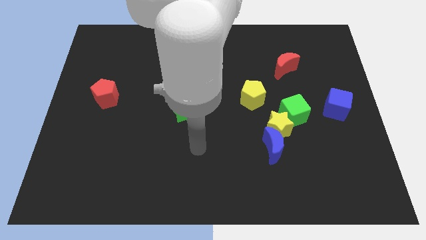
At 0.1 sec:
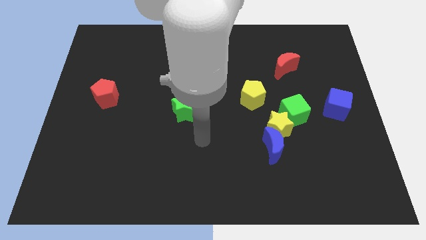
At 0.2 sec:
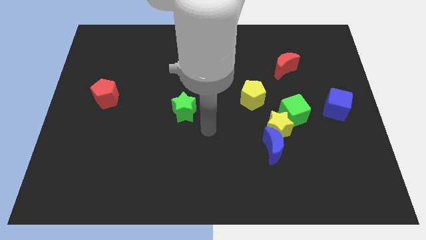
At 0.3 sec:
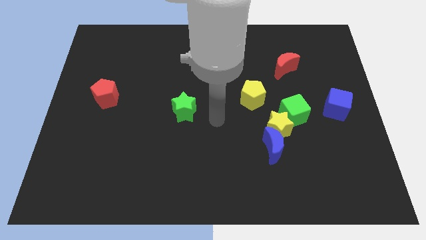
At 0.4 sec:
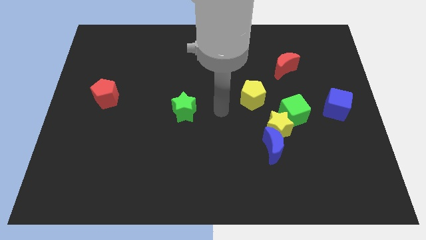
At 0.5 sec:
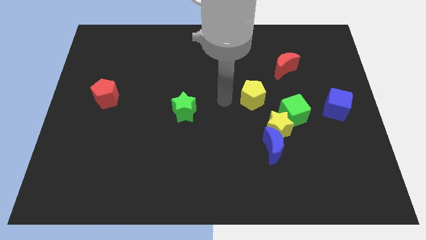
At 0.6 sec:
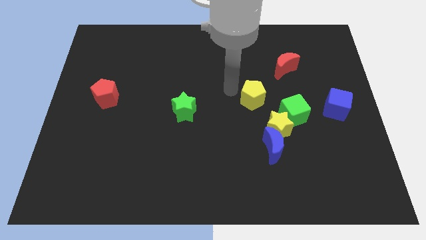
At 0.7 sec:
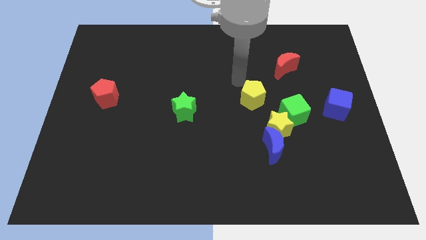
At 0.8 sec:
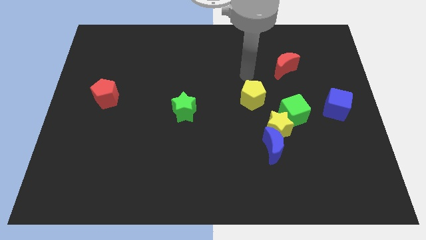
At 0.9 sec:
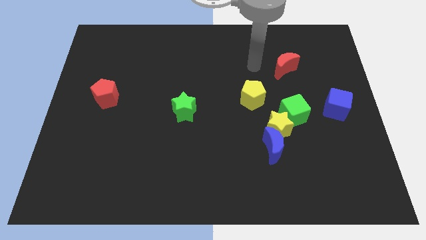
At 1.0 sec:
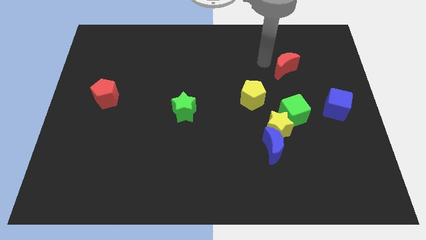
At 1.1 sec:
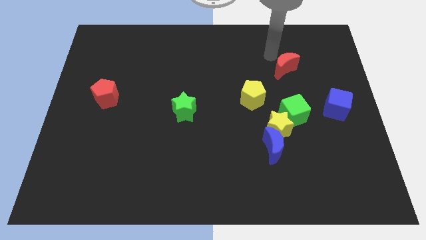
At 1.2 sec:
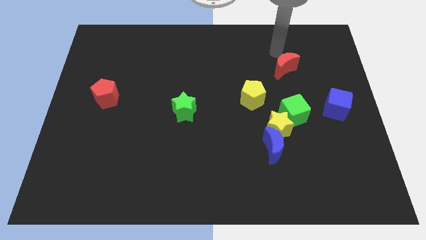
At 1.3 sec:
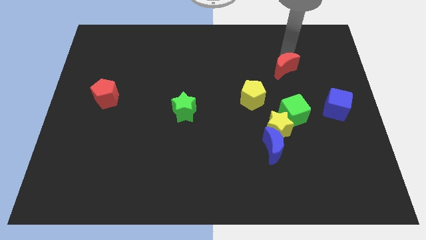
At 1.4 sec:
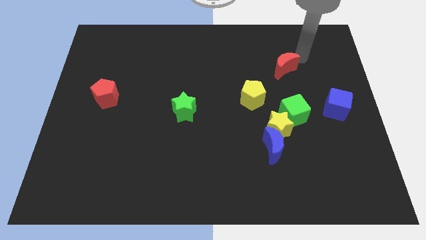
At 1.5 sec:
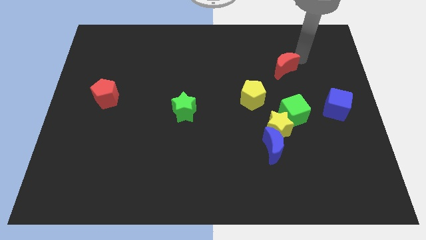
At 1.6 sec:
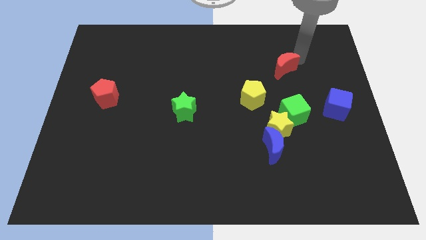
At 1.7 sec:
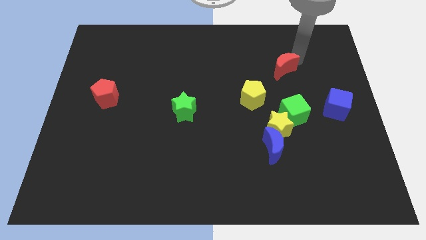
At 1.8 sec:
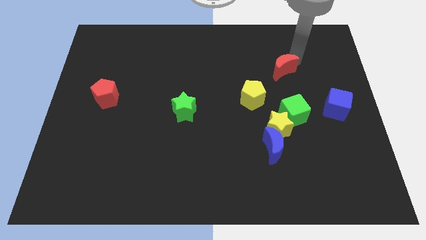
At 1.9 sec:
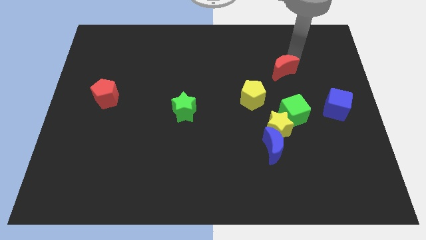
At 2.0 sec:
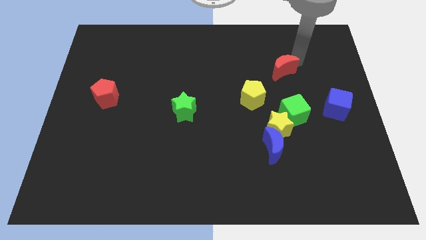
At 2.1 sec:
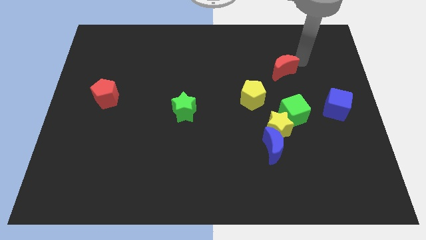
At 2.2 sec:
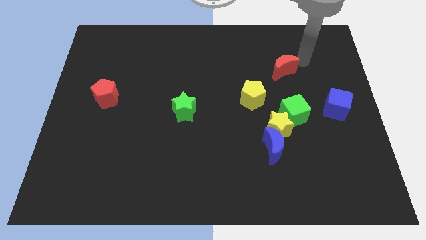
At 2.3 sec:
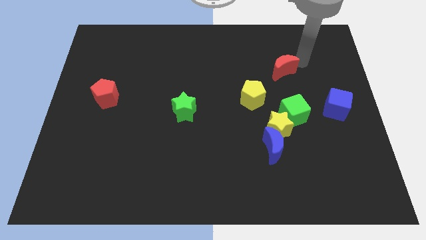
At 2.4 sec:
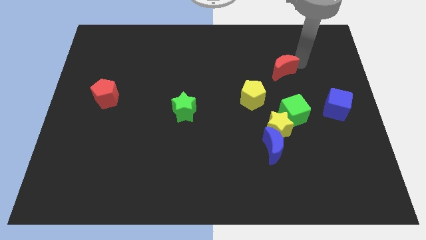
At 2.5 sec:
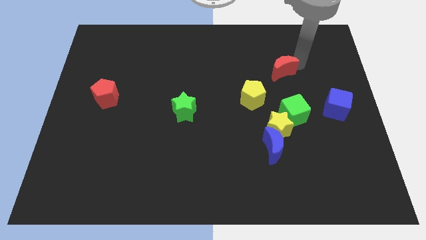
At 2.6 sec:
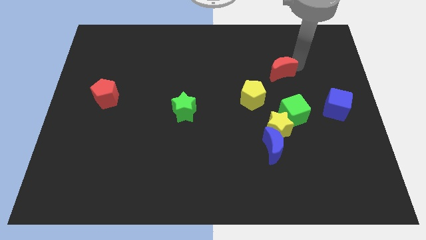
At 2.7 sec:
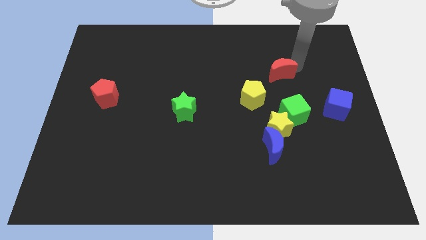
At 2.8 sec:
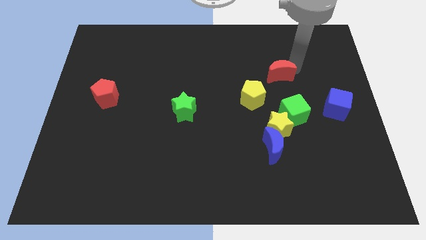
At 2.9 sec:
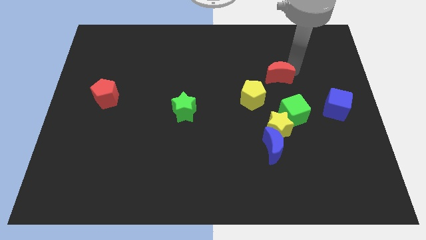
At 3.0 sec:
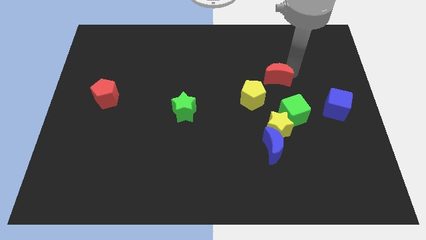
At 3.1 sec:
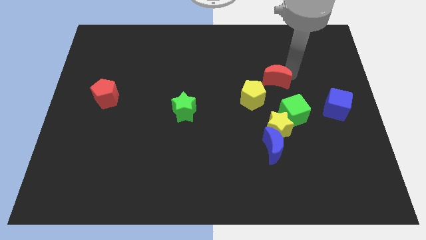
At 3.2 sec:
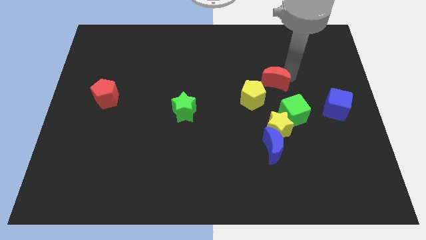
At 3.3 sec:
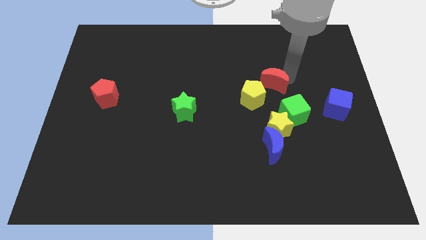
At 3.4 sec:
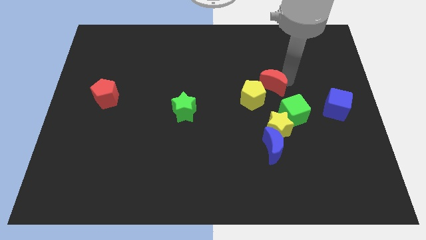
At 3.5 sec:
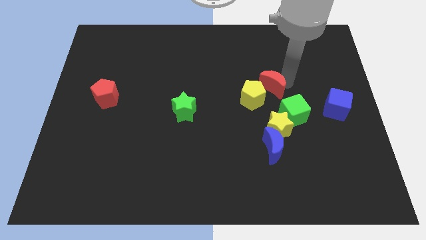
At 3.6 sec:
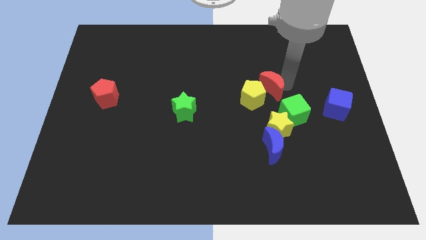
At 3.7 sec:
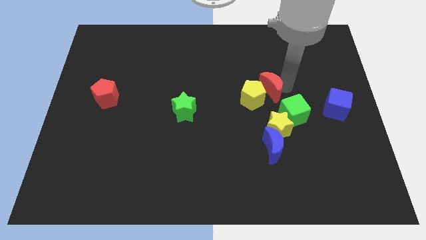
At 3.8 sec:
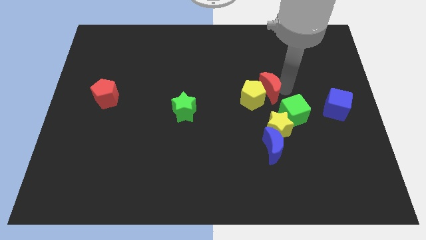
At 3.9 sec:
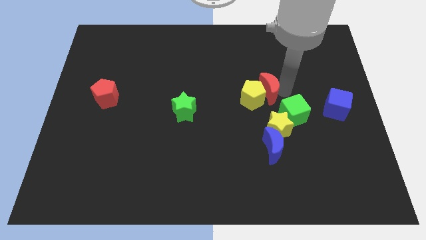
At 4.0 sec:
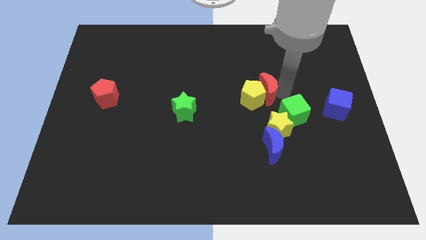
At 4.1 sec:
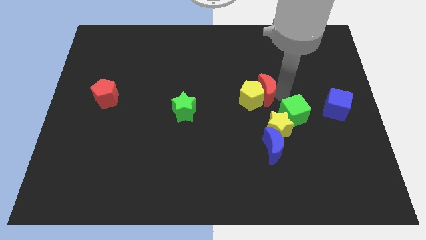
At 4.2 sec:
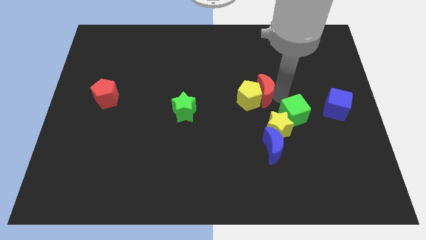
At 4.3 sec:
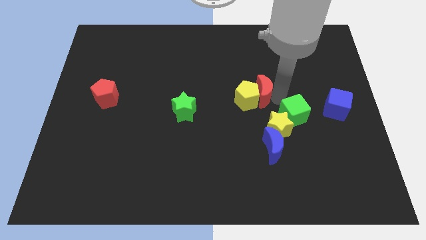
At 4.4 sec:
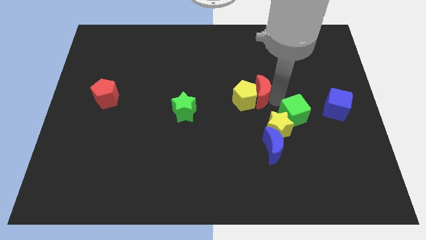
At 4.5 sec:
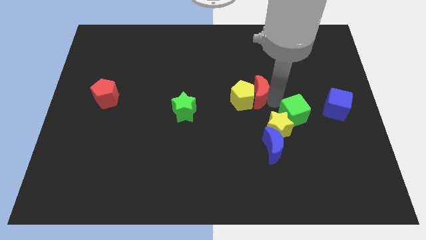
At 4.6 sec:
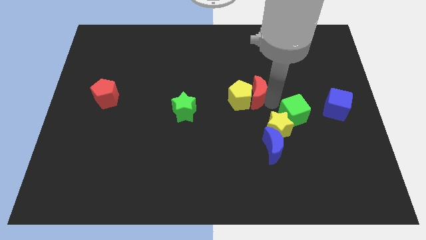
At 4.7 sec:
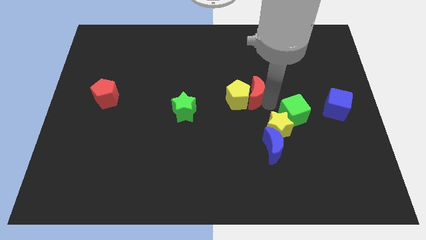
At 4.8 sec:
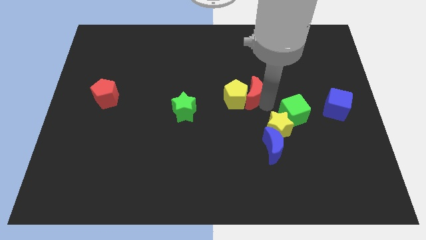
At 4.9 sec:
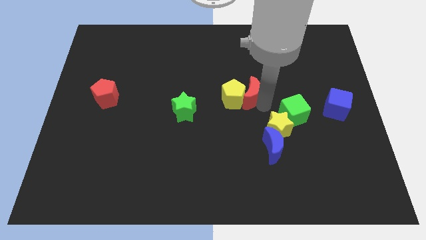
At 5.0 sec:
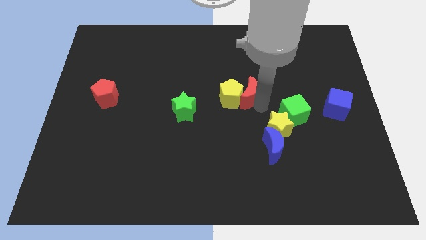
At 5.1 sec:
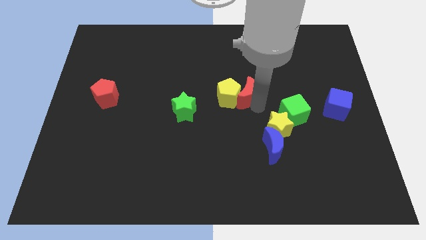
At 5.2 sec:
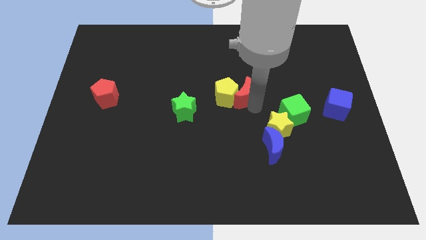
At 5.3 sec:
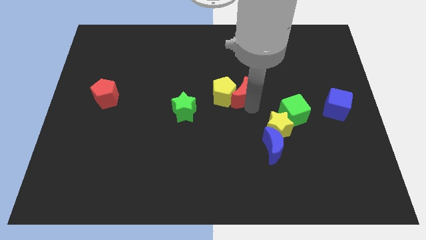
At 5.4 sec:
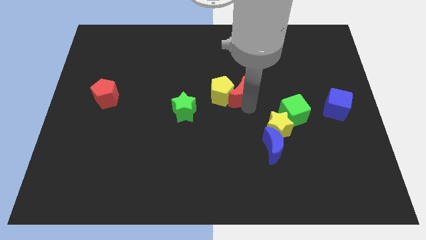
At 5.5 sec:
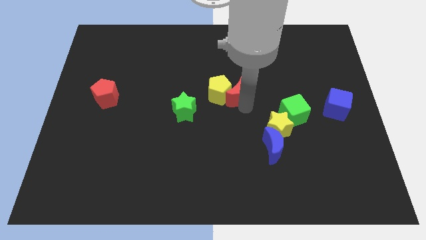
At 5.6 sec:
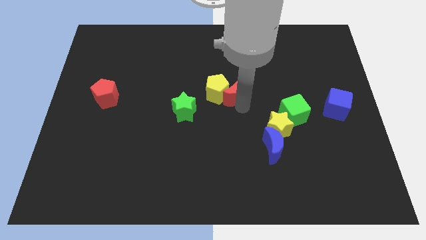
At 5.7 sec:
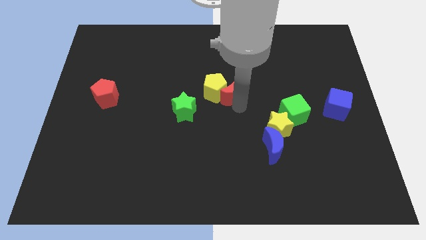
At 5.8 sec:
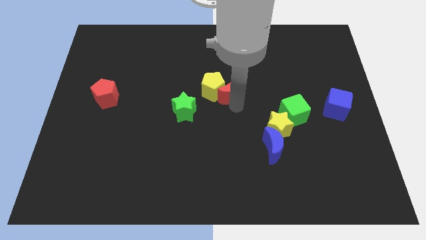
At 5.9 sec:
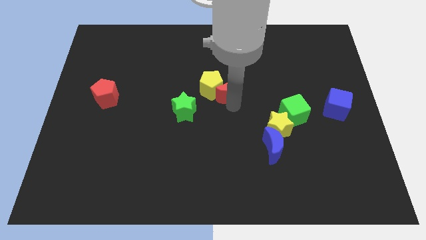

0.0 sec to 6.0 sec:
put the red moon to the top right of the green star

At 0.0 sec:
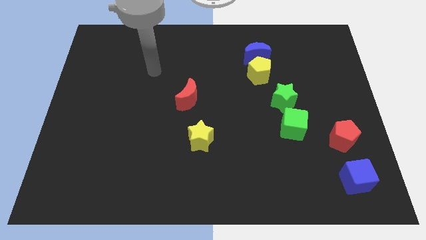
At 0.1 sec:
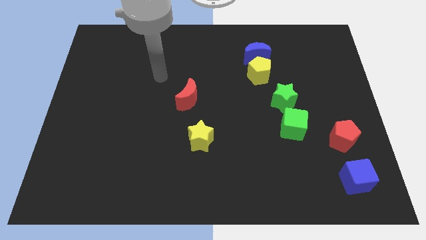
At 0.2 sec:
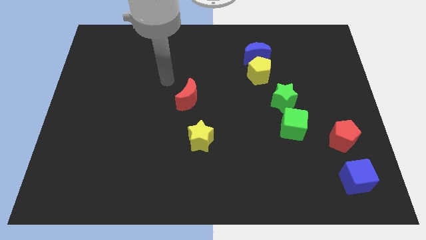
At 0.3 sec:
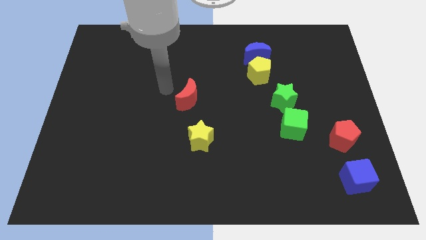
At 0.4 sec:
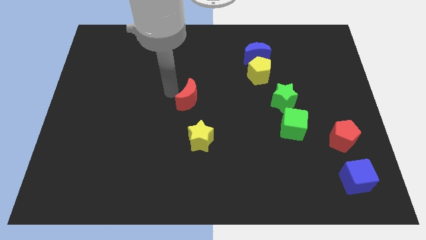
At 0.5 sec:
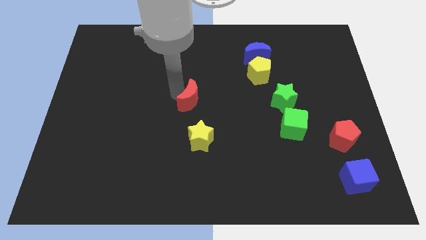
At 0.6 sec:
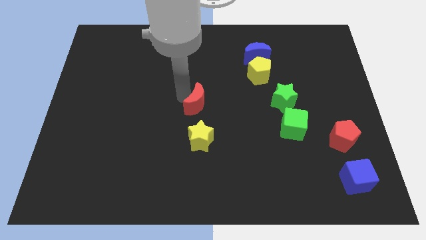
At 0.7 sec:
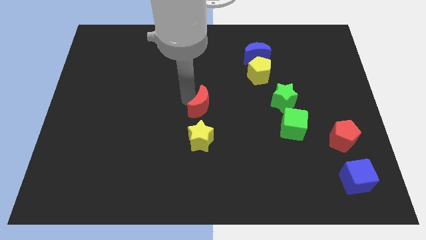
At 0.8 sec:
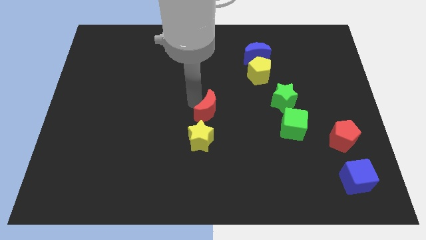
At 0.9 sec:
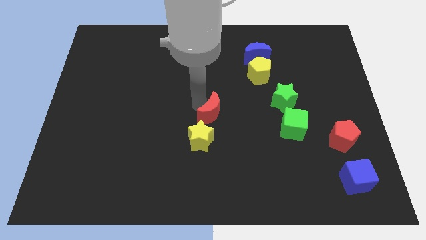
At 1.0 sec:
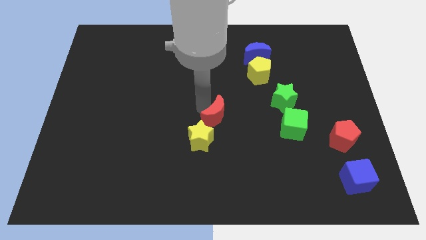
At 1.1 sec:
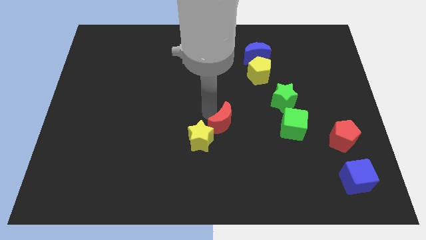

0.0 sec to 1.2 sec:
put the red moon to the left side of the green cube

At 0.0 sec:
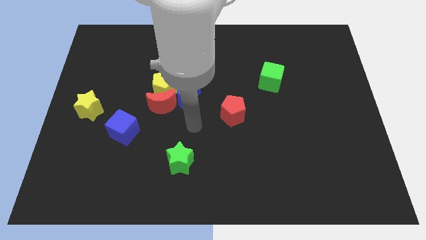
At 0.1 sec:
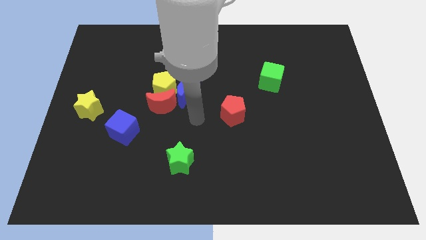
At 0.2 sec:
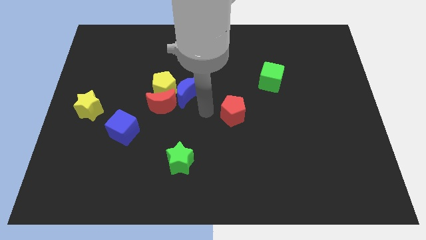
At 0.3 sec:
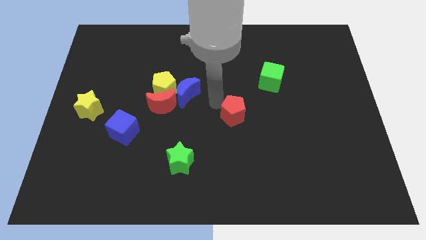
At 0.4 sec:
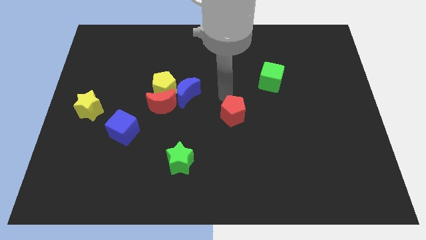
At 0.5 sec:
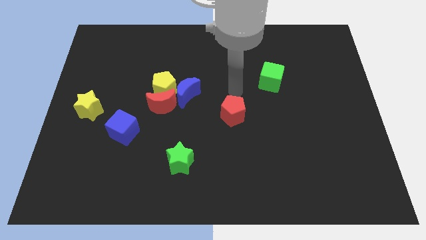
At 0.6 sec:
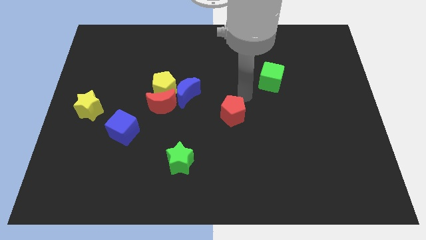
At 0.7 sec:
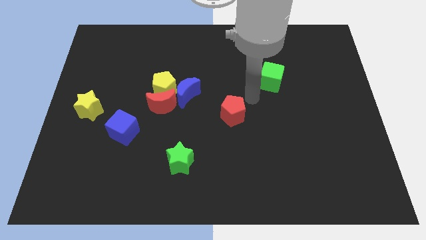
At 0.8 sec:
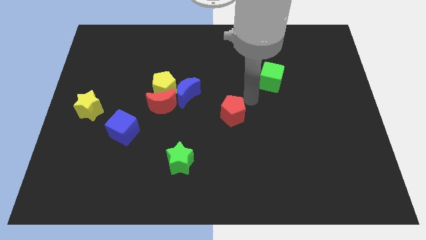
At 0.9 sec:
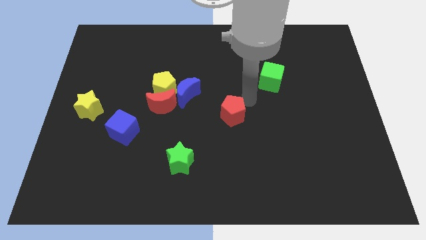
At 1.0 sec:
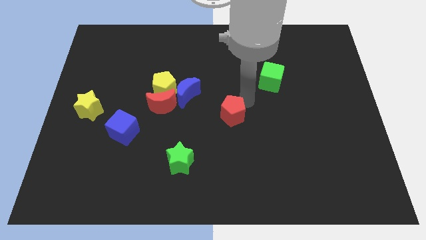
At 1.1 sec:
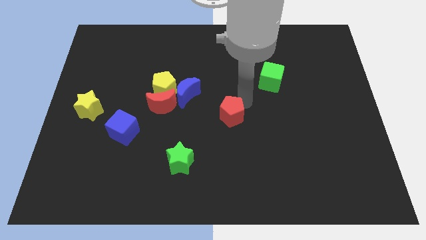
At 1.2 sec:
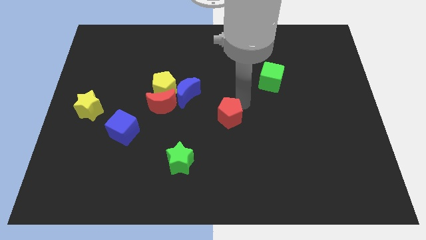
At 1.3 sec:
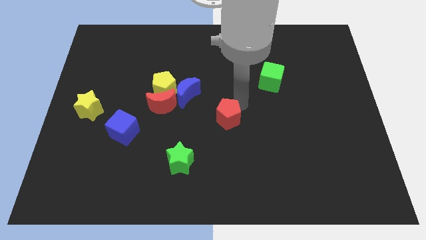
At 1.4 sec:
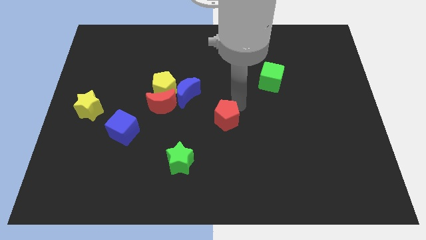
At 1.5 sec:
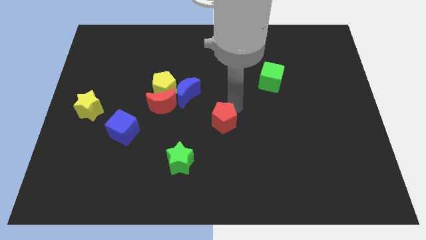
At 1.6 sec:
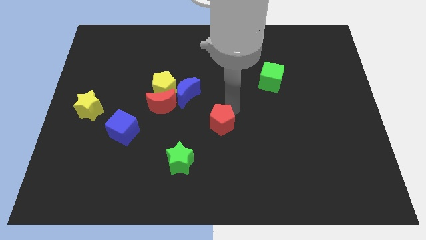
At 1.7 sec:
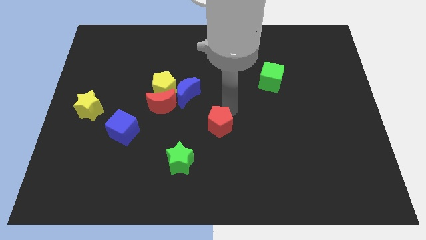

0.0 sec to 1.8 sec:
put the red pentagon to the top right of the green star
